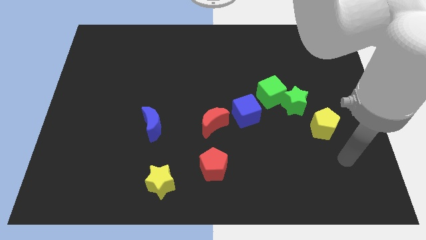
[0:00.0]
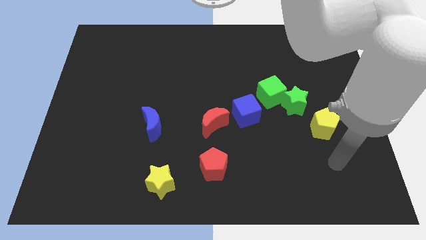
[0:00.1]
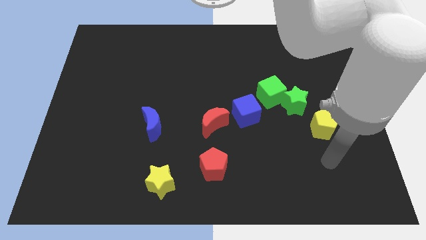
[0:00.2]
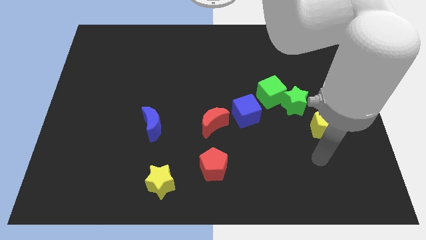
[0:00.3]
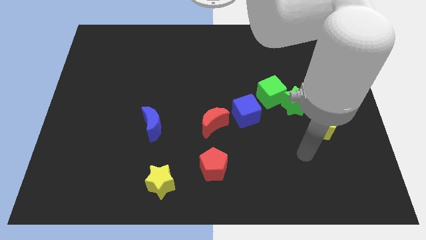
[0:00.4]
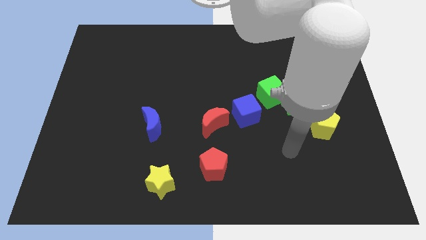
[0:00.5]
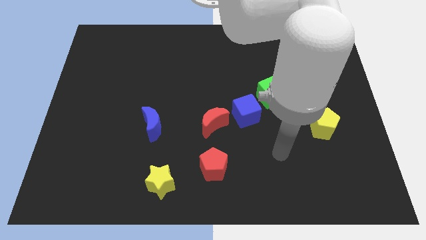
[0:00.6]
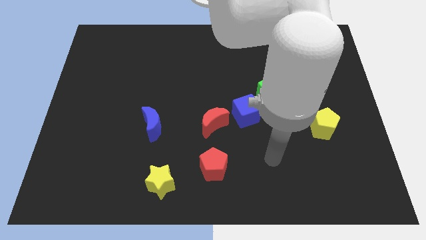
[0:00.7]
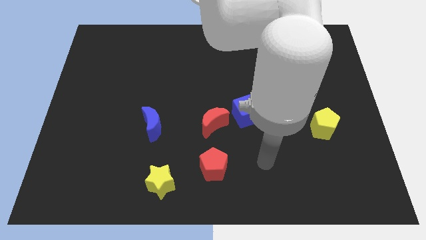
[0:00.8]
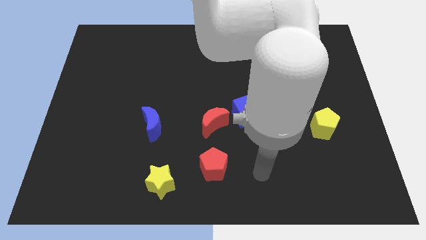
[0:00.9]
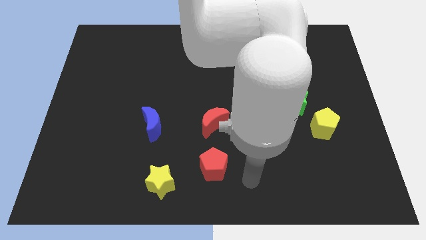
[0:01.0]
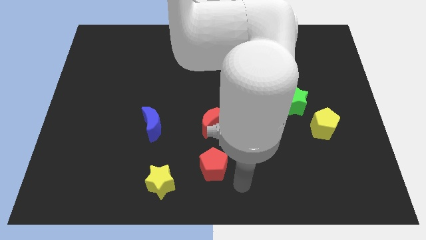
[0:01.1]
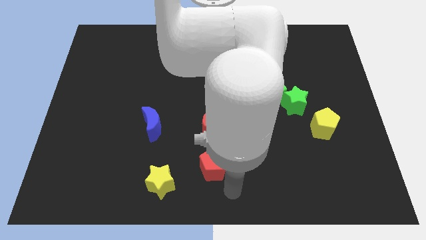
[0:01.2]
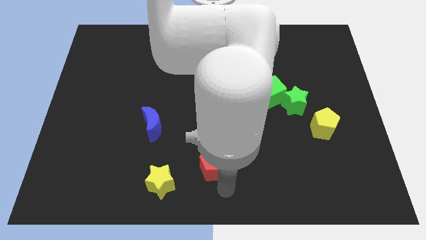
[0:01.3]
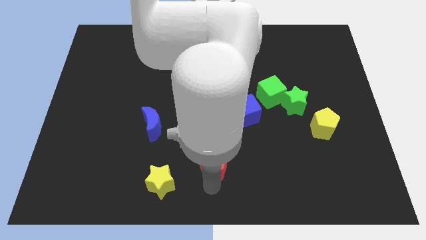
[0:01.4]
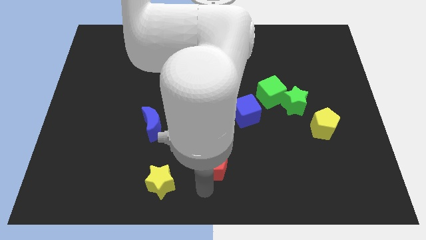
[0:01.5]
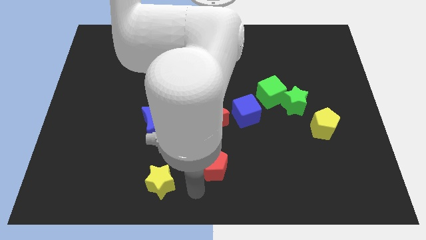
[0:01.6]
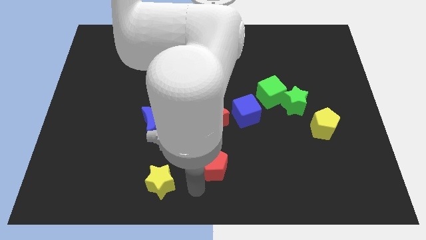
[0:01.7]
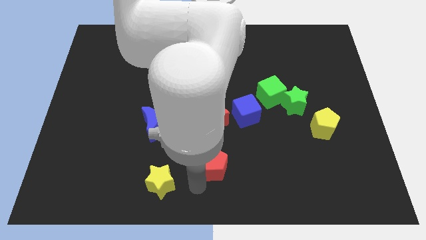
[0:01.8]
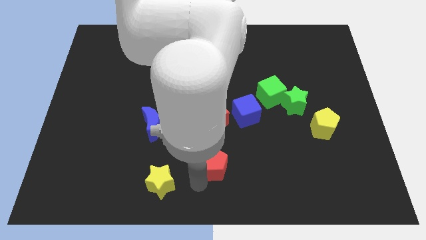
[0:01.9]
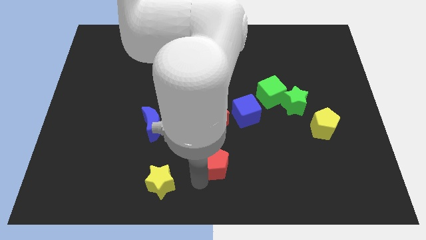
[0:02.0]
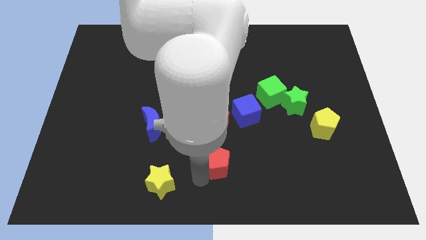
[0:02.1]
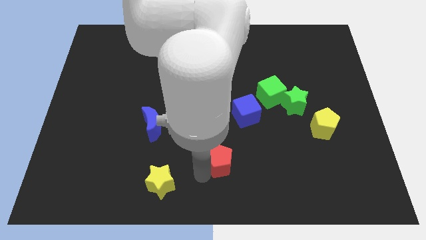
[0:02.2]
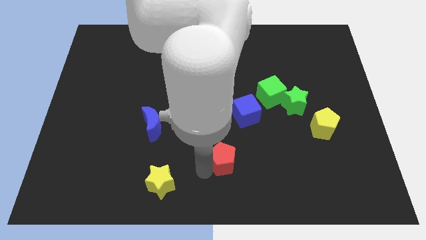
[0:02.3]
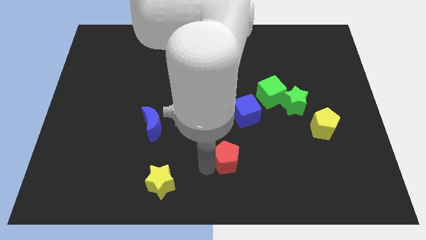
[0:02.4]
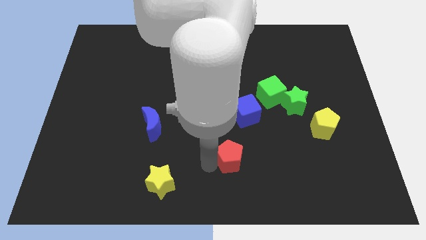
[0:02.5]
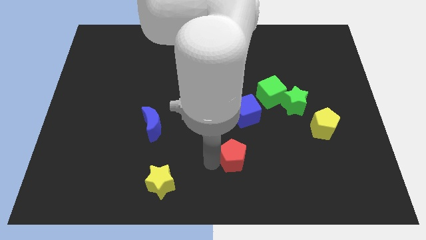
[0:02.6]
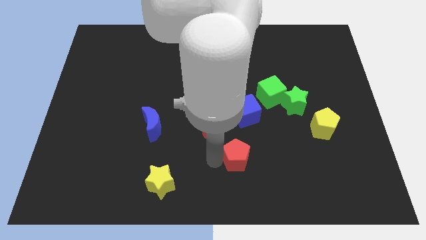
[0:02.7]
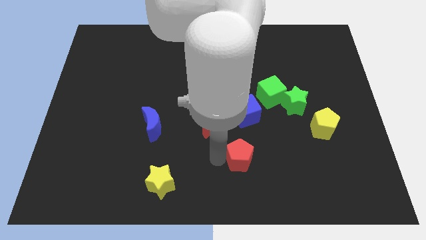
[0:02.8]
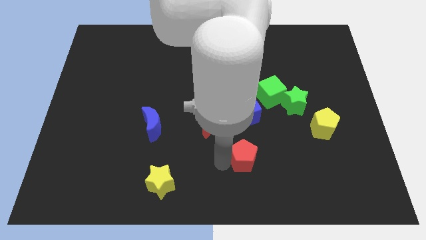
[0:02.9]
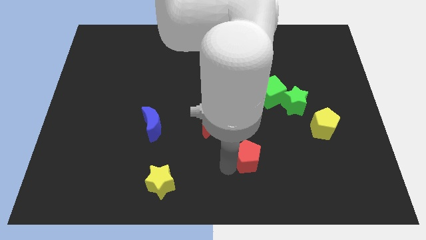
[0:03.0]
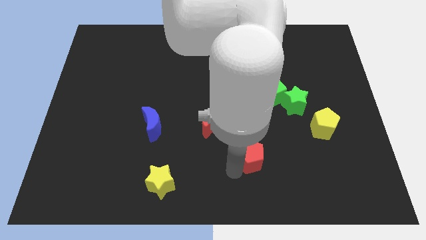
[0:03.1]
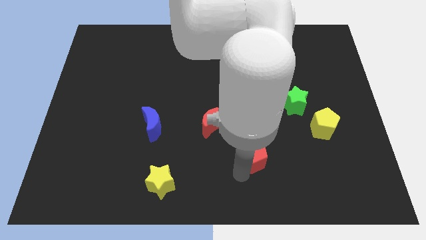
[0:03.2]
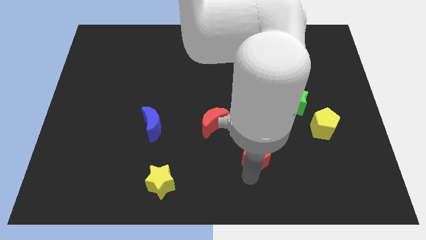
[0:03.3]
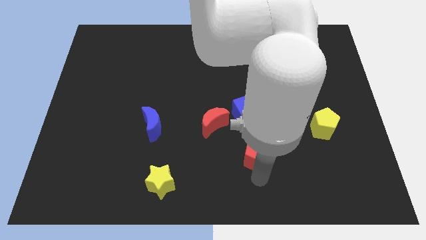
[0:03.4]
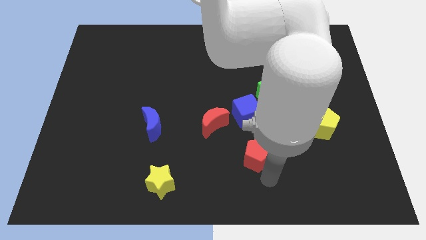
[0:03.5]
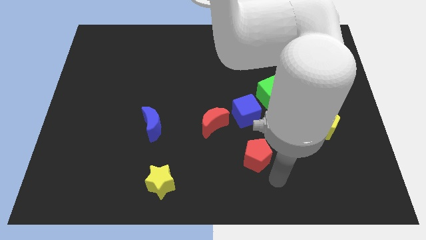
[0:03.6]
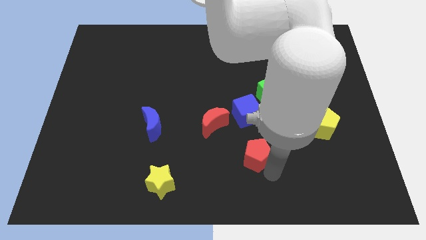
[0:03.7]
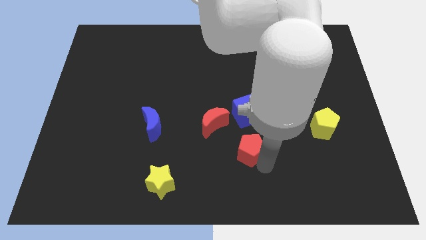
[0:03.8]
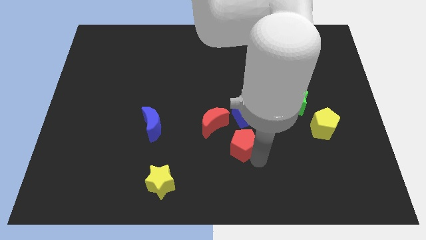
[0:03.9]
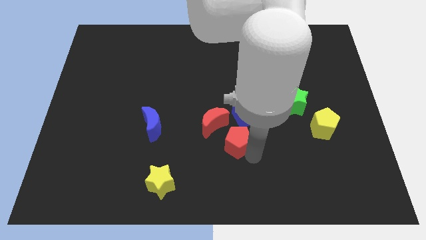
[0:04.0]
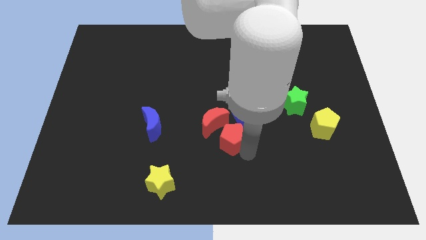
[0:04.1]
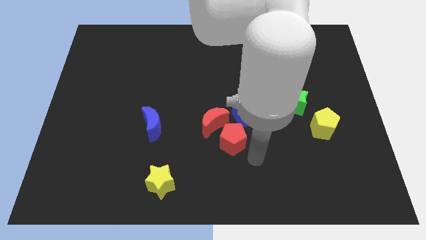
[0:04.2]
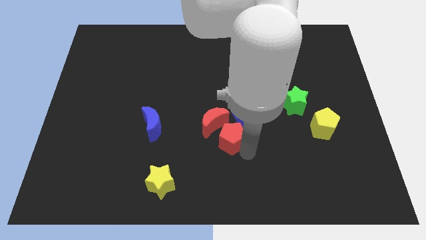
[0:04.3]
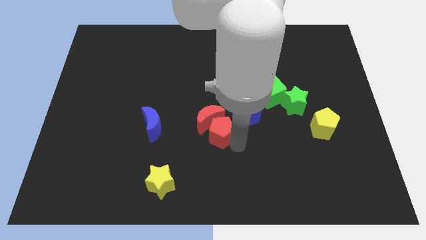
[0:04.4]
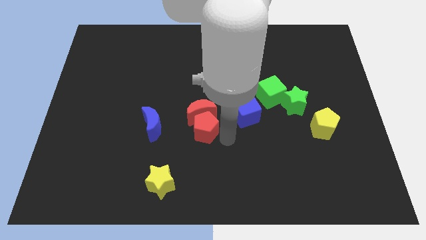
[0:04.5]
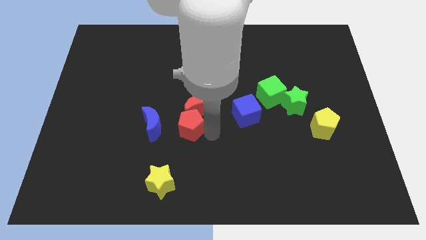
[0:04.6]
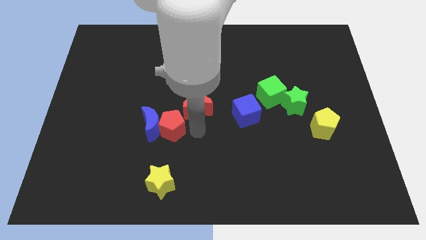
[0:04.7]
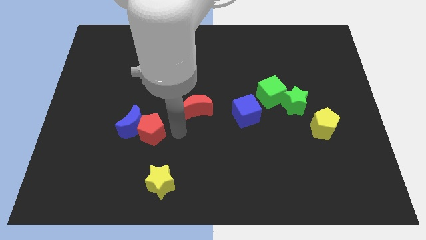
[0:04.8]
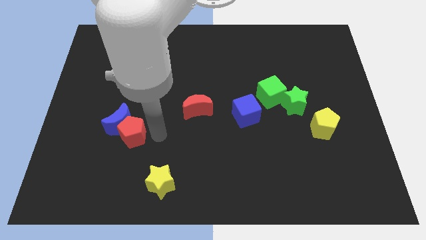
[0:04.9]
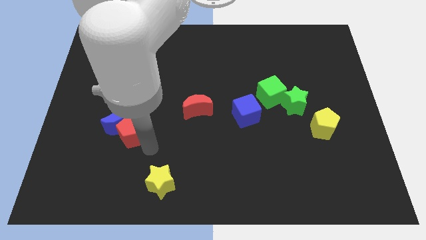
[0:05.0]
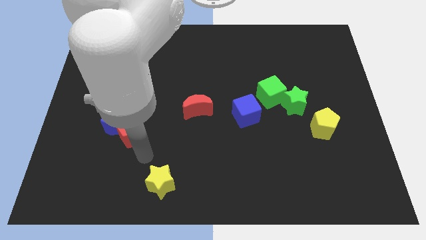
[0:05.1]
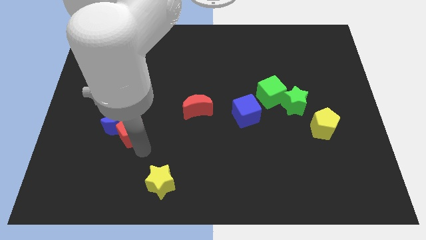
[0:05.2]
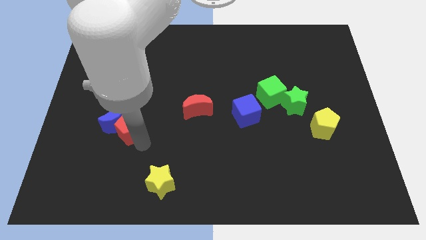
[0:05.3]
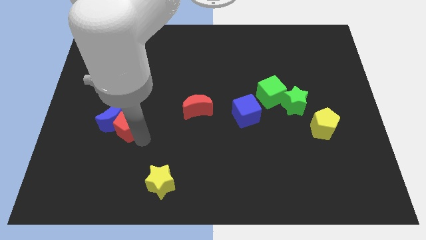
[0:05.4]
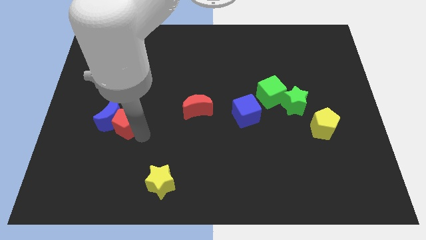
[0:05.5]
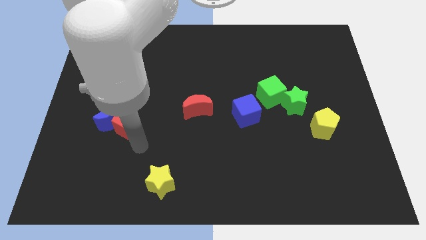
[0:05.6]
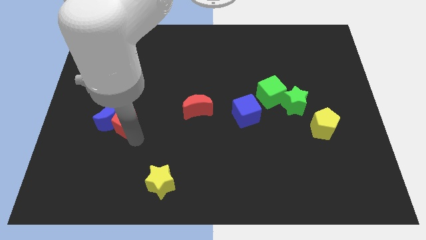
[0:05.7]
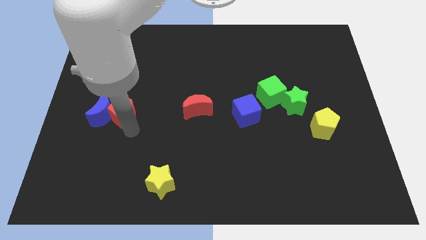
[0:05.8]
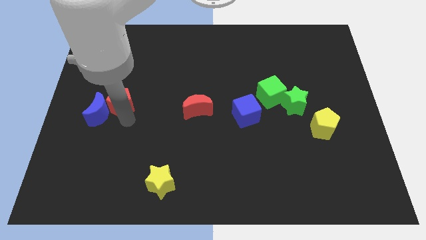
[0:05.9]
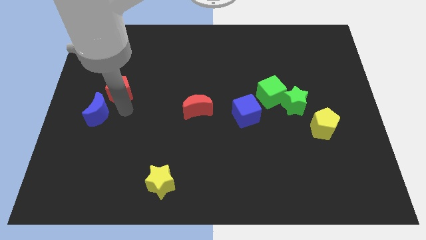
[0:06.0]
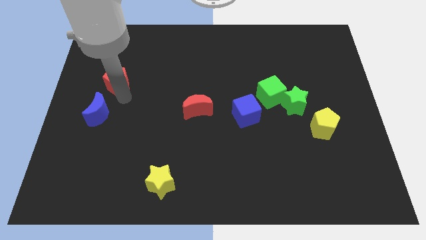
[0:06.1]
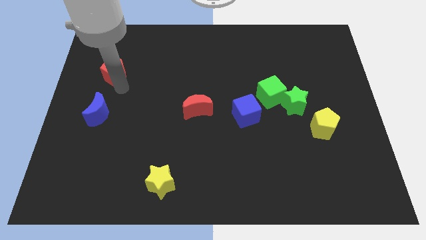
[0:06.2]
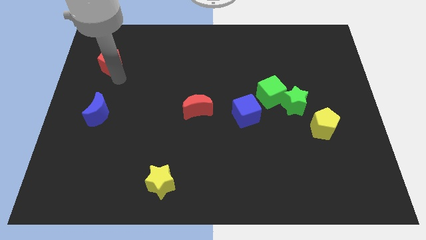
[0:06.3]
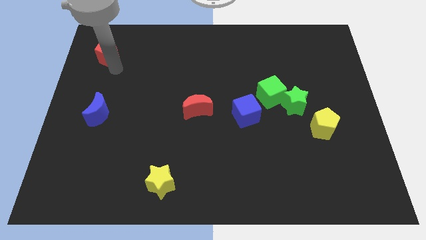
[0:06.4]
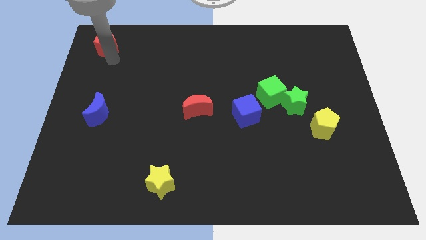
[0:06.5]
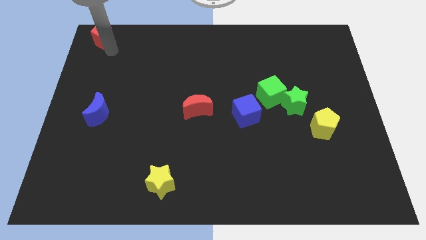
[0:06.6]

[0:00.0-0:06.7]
move the red pentagon to the top left of the board
